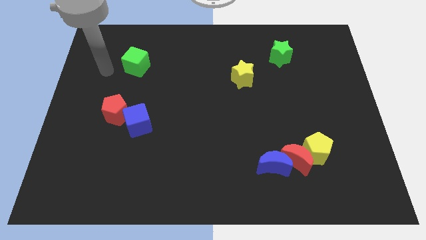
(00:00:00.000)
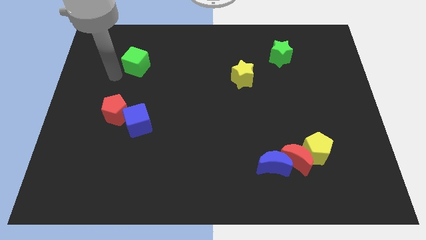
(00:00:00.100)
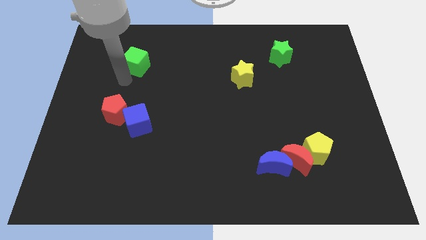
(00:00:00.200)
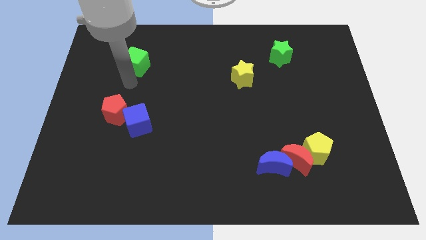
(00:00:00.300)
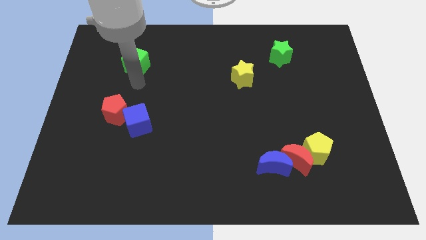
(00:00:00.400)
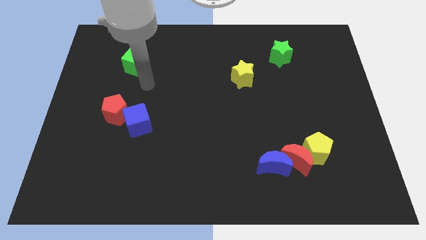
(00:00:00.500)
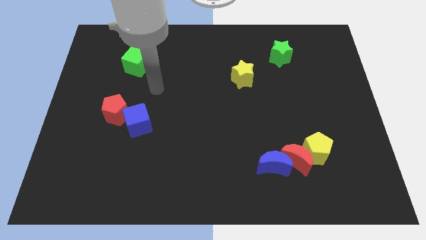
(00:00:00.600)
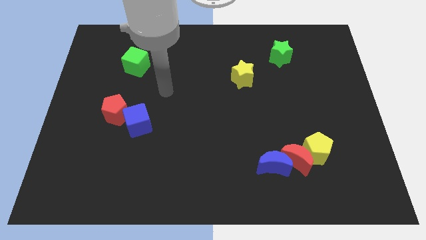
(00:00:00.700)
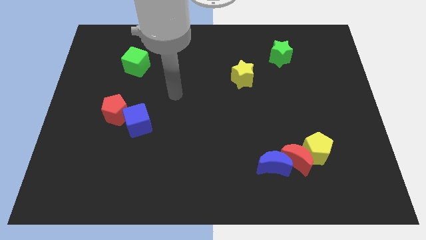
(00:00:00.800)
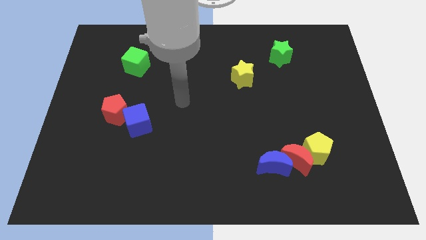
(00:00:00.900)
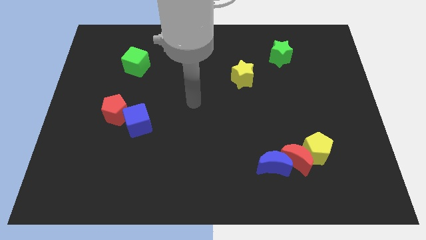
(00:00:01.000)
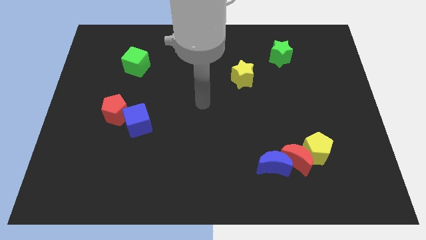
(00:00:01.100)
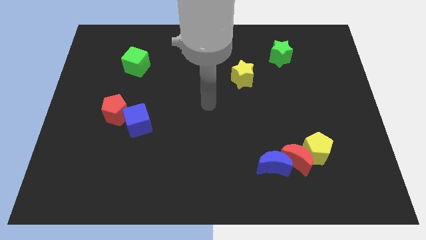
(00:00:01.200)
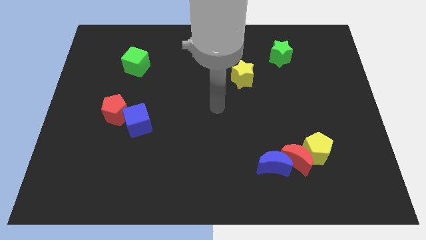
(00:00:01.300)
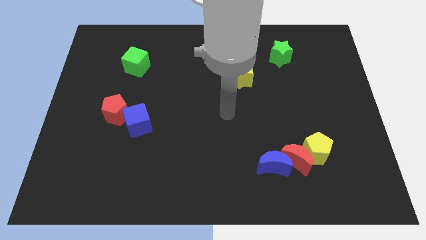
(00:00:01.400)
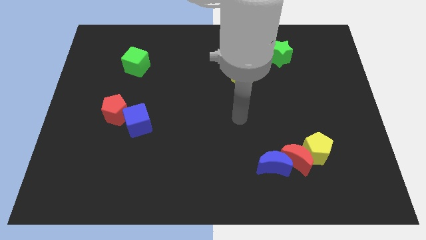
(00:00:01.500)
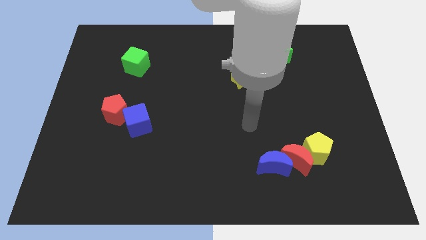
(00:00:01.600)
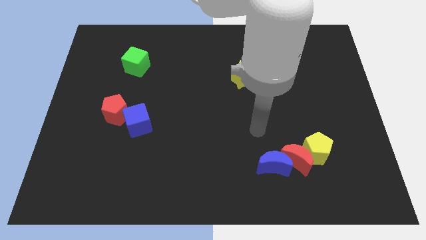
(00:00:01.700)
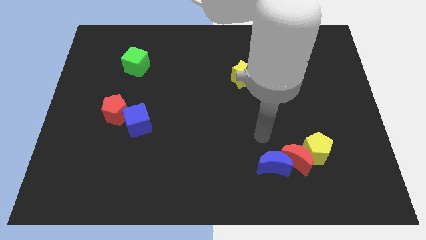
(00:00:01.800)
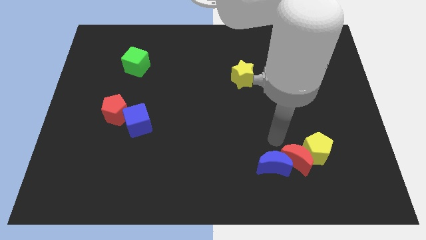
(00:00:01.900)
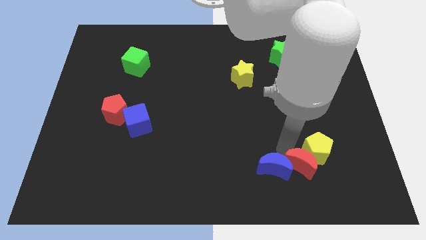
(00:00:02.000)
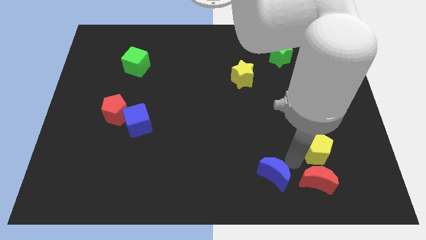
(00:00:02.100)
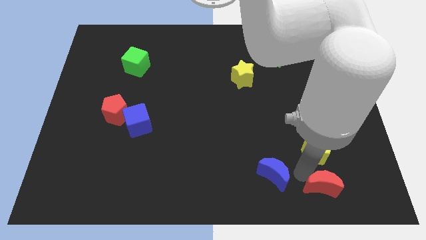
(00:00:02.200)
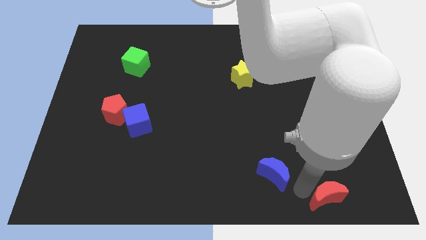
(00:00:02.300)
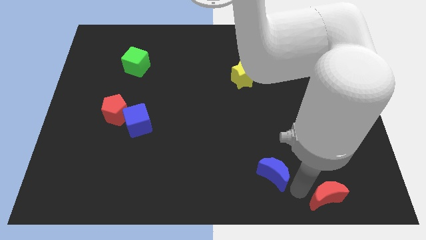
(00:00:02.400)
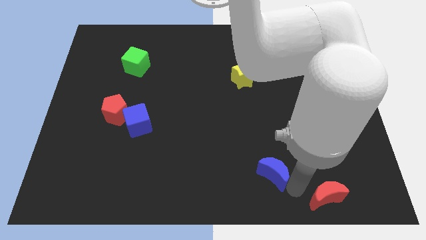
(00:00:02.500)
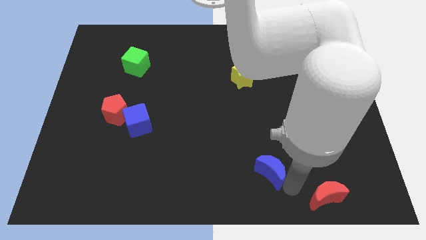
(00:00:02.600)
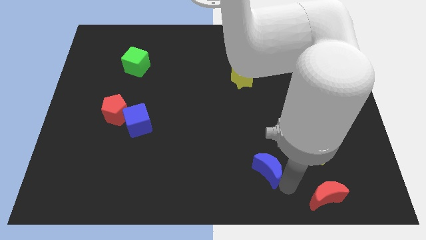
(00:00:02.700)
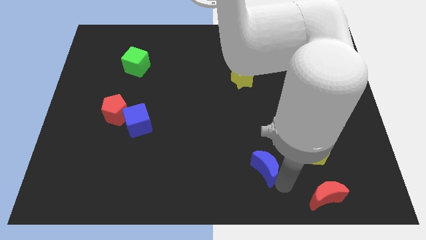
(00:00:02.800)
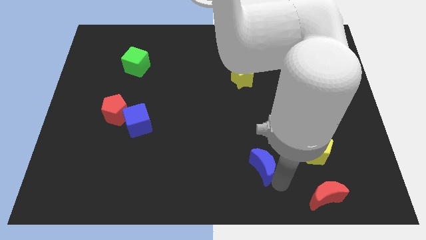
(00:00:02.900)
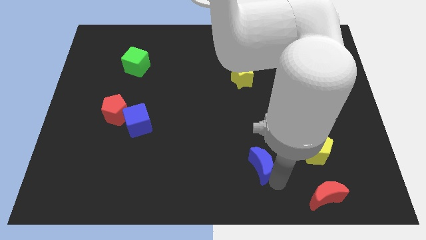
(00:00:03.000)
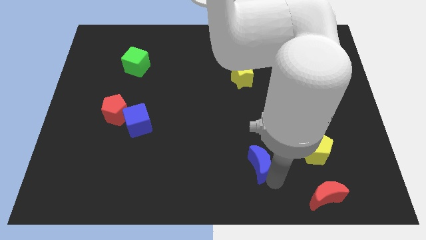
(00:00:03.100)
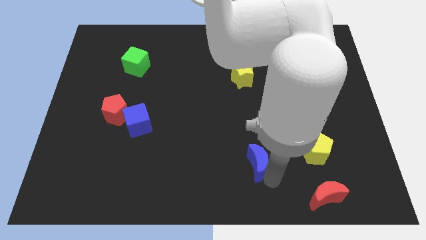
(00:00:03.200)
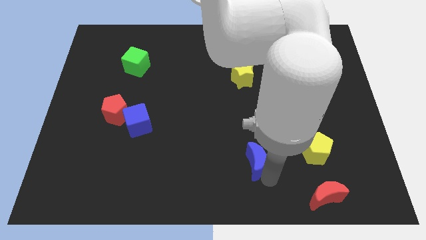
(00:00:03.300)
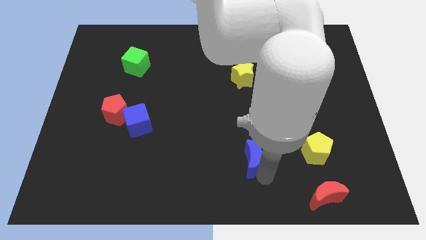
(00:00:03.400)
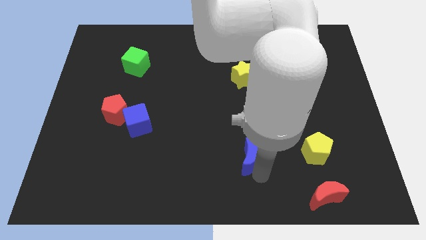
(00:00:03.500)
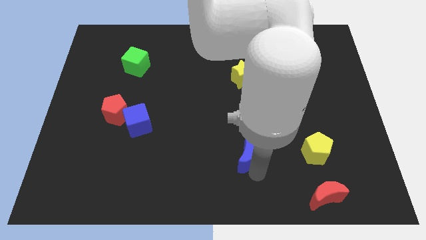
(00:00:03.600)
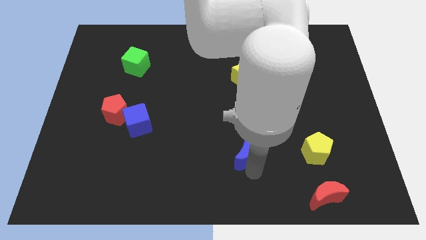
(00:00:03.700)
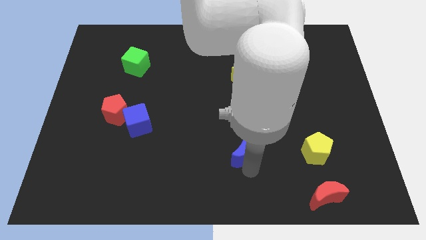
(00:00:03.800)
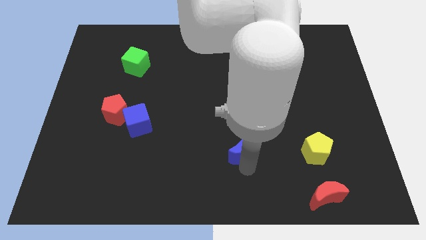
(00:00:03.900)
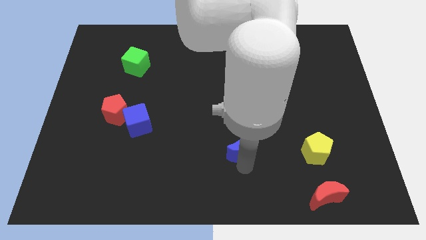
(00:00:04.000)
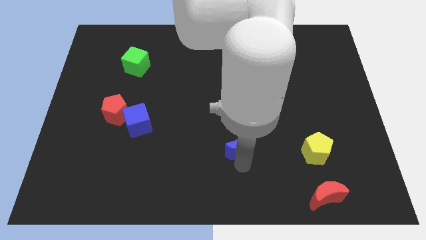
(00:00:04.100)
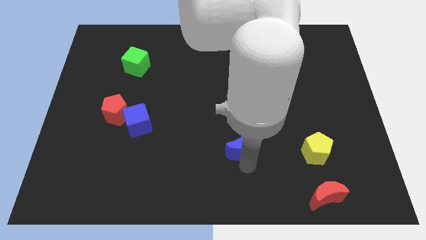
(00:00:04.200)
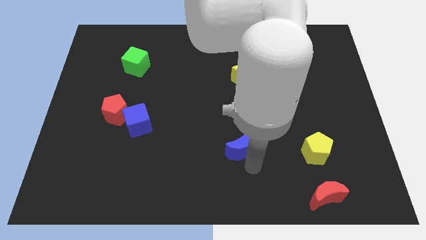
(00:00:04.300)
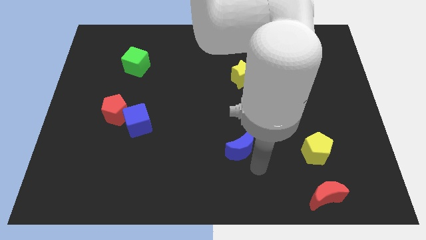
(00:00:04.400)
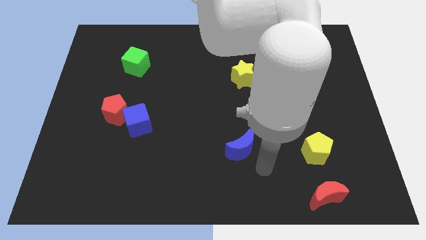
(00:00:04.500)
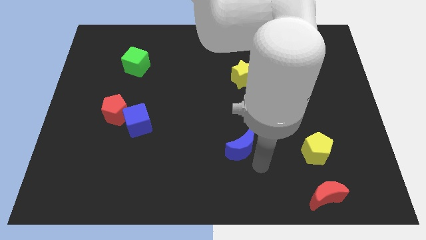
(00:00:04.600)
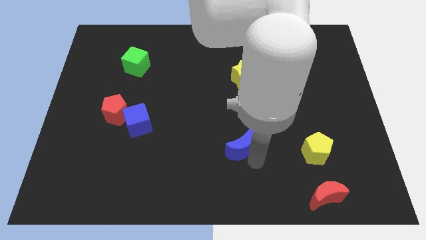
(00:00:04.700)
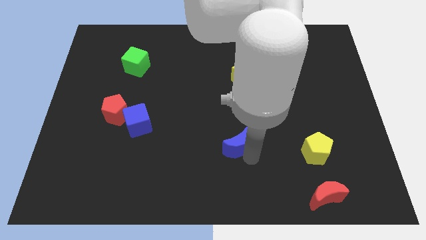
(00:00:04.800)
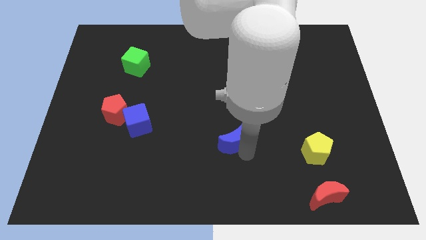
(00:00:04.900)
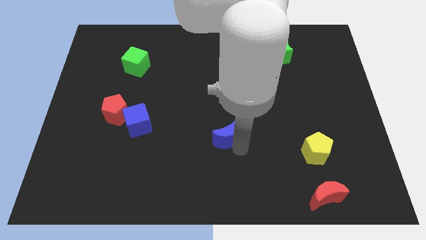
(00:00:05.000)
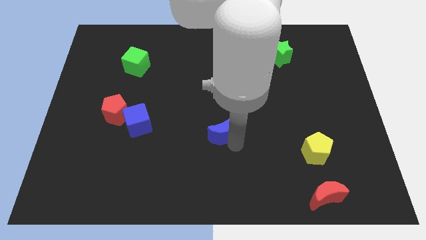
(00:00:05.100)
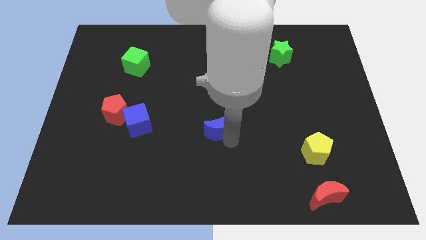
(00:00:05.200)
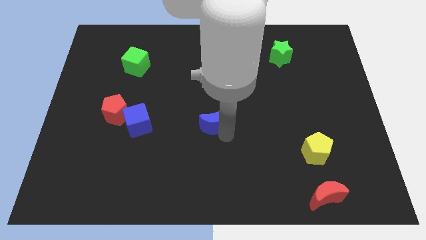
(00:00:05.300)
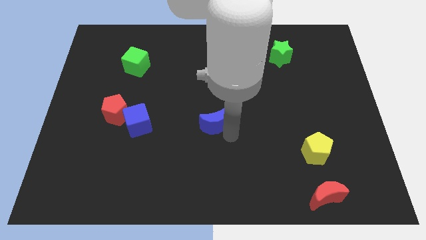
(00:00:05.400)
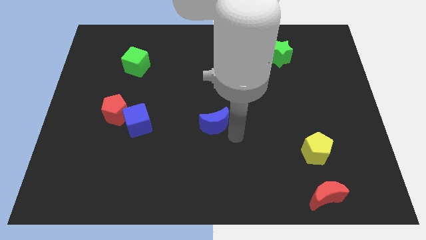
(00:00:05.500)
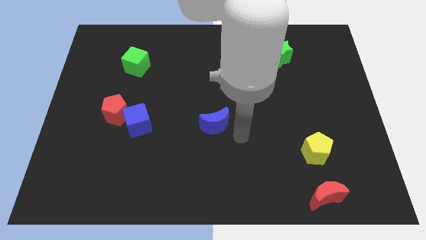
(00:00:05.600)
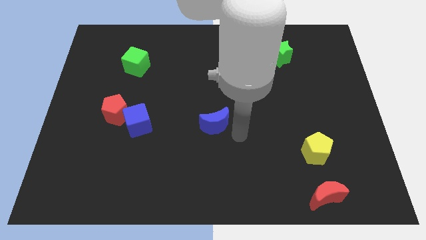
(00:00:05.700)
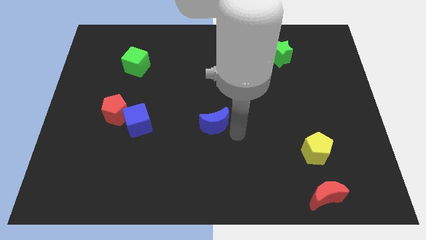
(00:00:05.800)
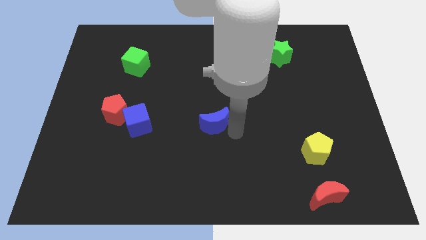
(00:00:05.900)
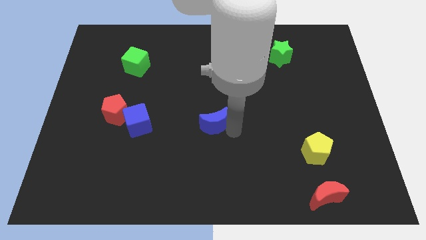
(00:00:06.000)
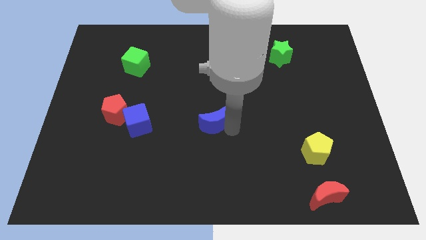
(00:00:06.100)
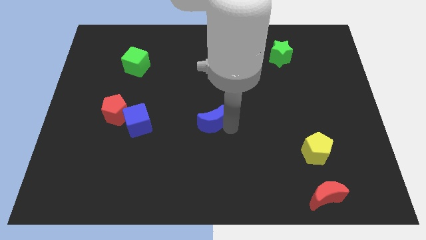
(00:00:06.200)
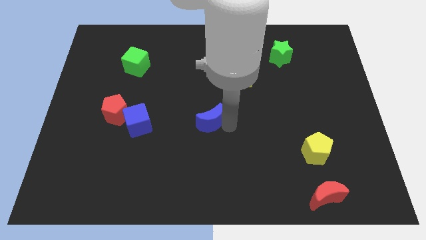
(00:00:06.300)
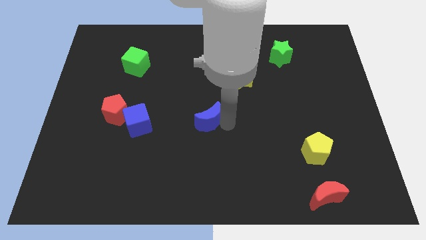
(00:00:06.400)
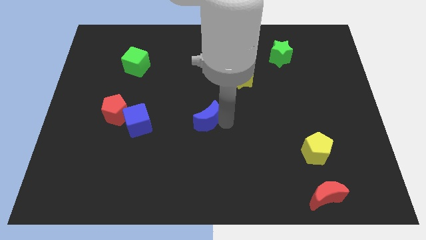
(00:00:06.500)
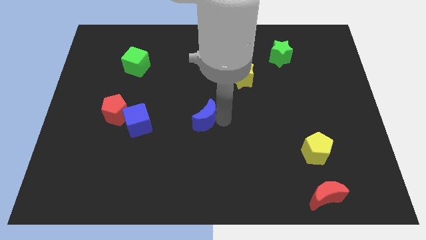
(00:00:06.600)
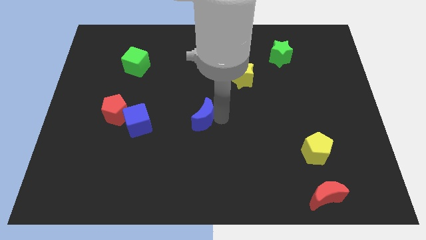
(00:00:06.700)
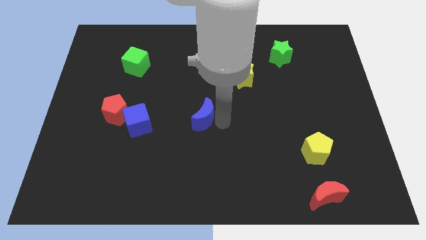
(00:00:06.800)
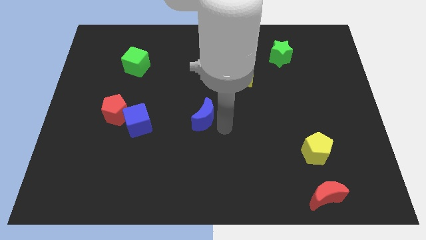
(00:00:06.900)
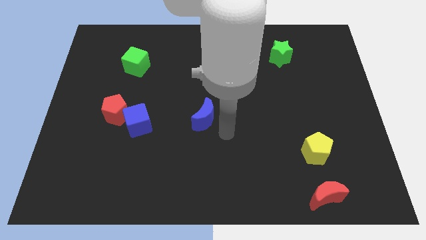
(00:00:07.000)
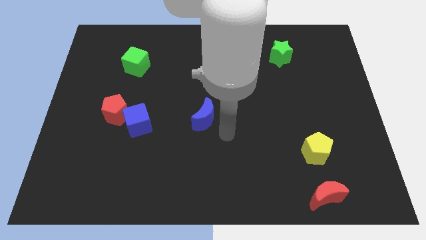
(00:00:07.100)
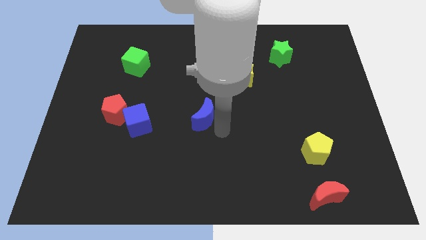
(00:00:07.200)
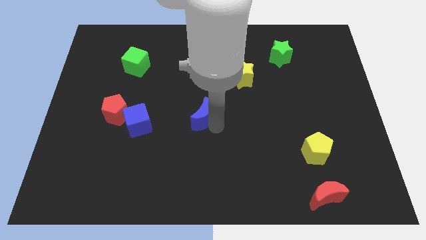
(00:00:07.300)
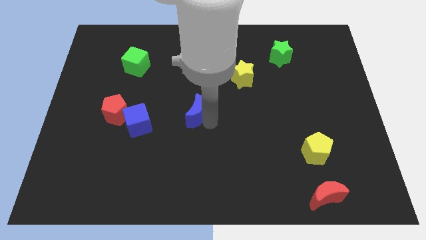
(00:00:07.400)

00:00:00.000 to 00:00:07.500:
slide the blue moon diagonally upwards and left

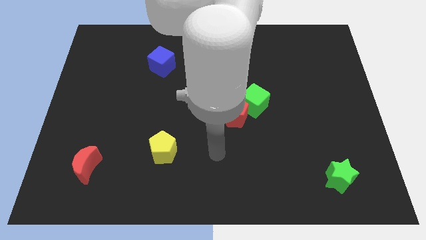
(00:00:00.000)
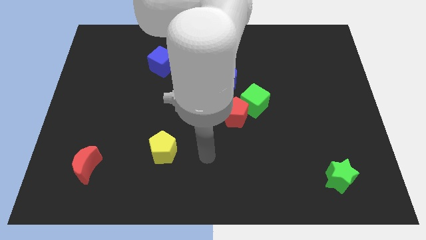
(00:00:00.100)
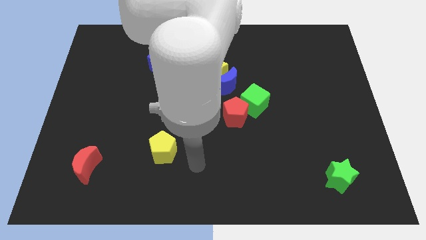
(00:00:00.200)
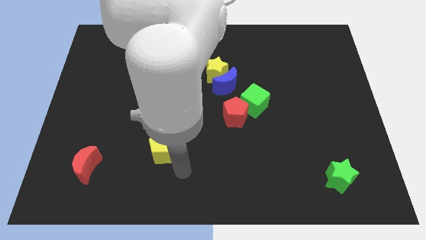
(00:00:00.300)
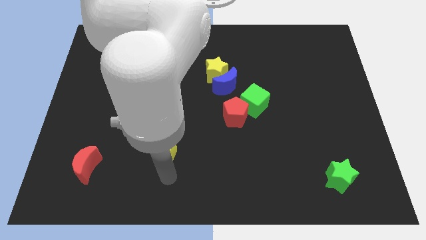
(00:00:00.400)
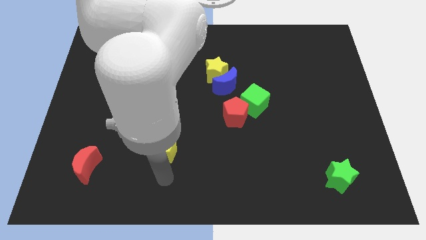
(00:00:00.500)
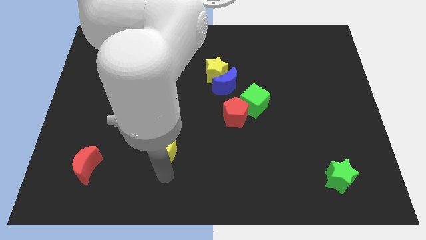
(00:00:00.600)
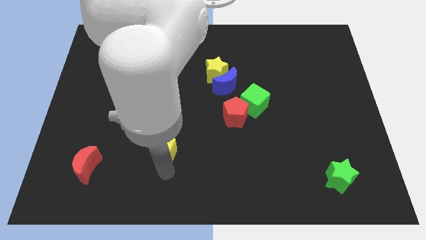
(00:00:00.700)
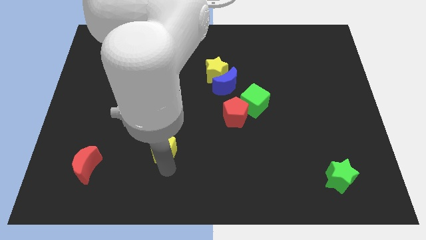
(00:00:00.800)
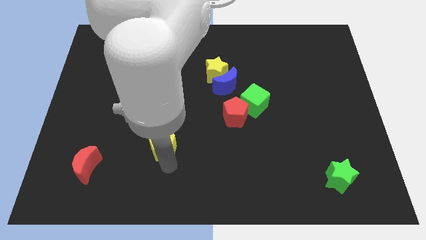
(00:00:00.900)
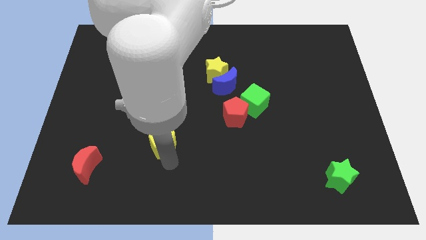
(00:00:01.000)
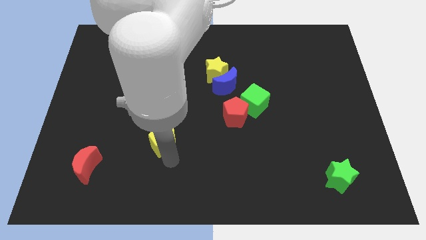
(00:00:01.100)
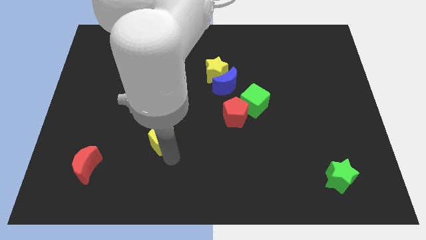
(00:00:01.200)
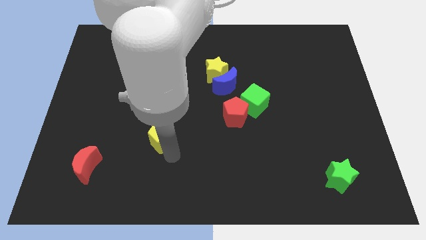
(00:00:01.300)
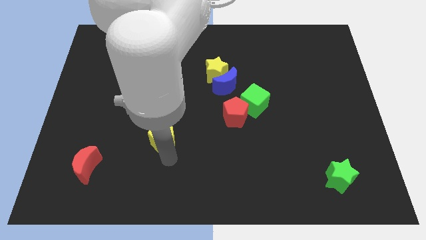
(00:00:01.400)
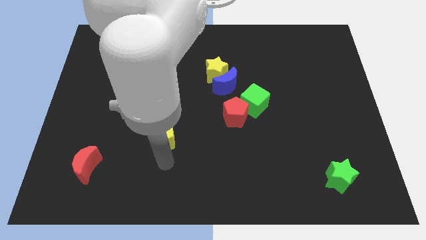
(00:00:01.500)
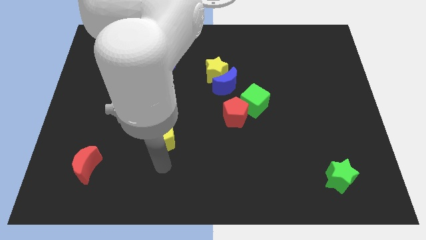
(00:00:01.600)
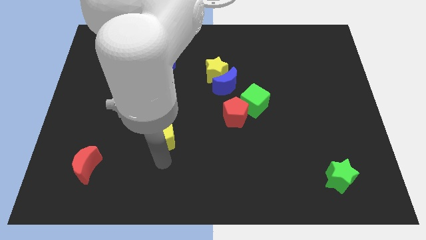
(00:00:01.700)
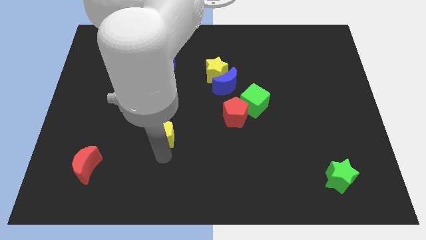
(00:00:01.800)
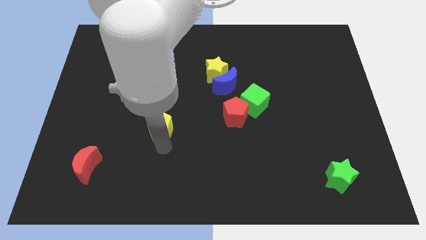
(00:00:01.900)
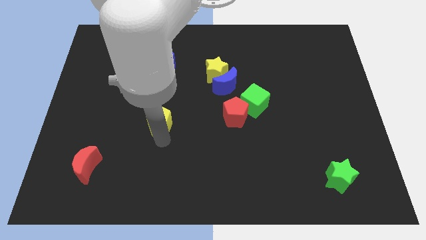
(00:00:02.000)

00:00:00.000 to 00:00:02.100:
move the yellow pentagon upwards slightly
